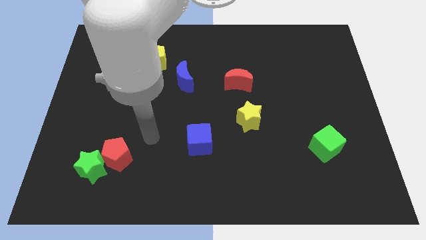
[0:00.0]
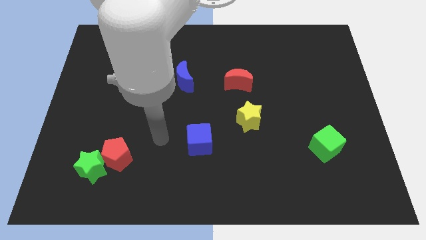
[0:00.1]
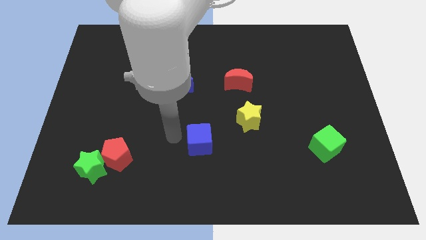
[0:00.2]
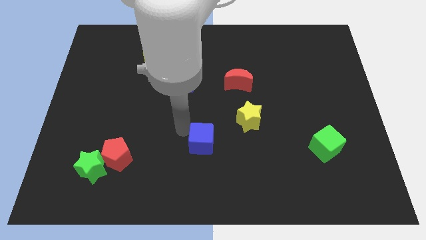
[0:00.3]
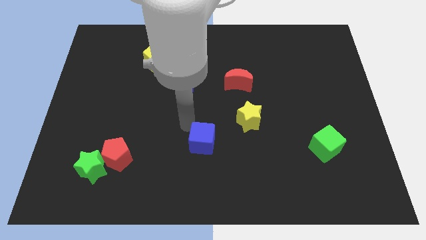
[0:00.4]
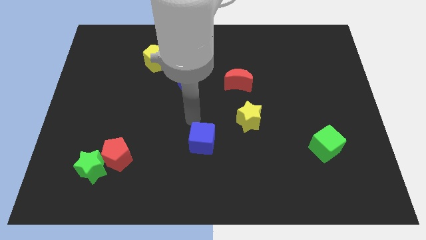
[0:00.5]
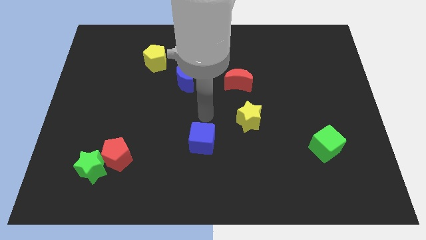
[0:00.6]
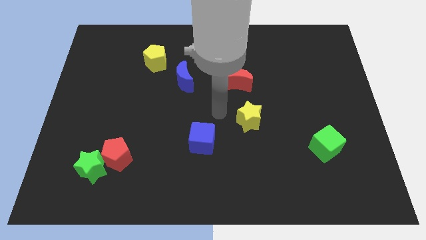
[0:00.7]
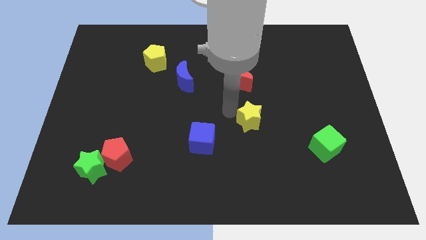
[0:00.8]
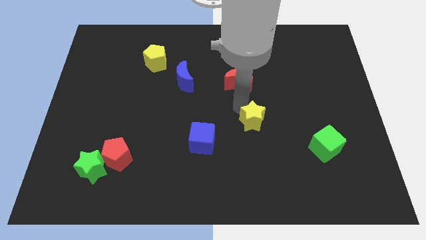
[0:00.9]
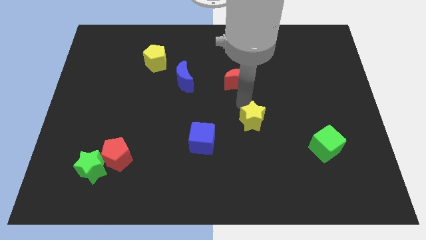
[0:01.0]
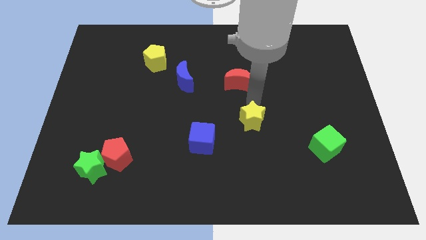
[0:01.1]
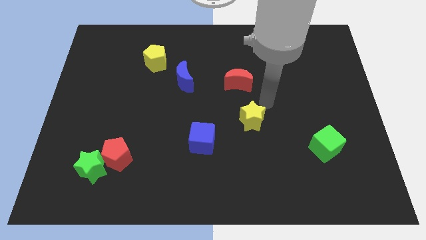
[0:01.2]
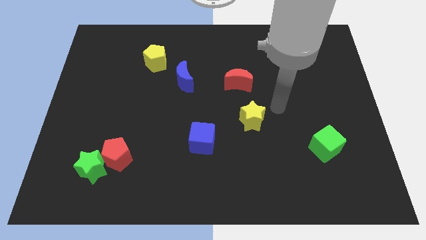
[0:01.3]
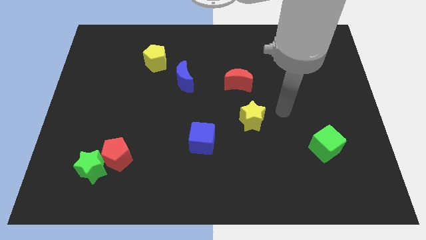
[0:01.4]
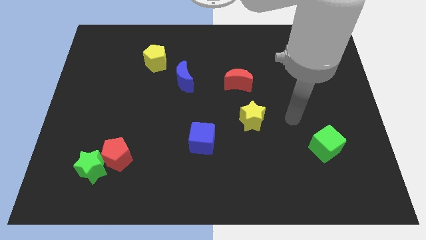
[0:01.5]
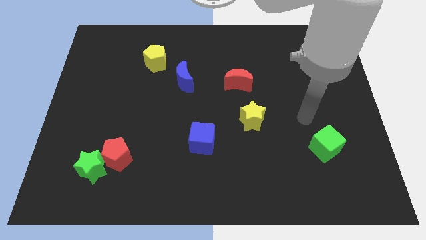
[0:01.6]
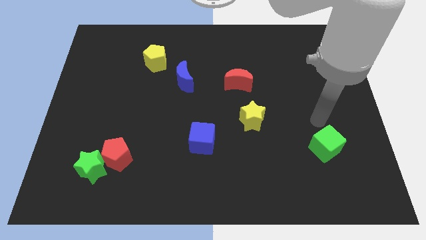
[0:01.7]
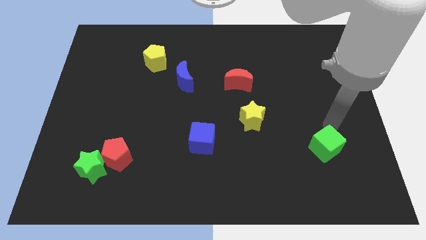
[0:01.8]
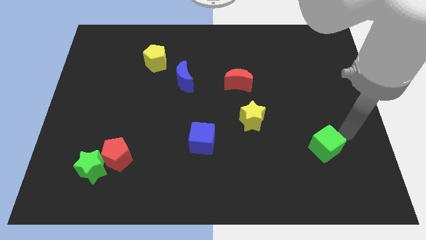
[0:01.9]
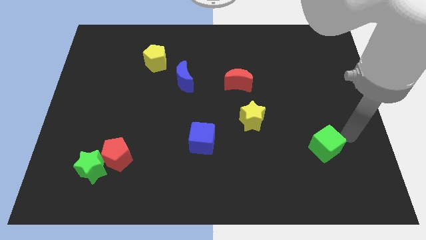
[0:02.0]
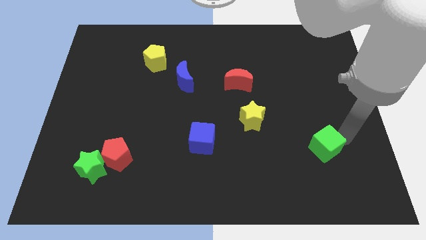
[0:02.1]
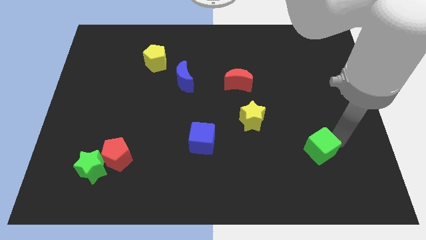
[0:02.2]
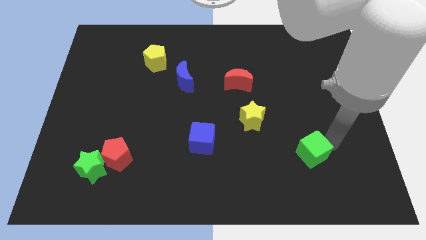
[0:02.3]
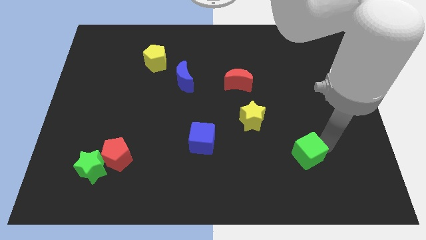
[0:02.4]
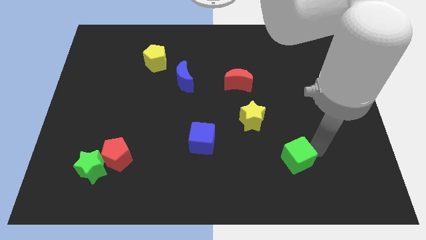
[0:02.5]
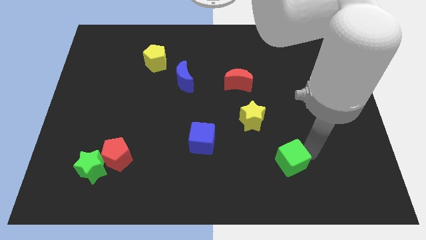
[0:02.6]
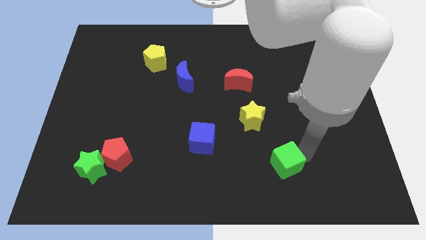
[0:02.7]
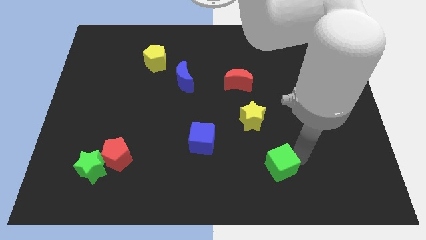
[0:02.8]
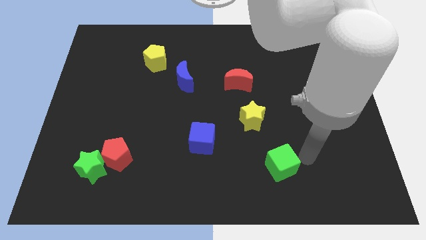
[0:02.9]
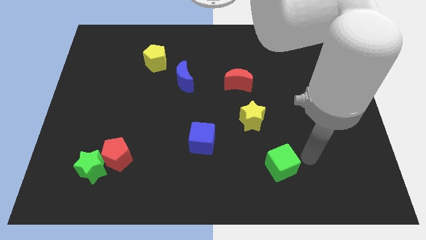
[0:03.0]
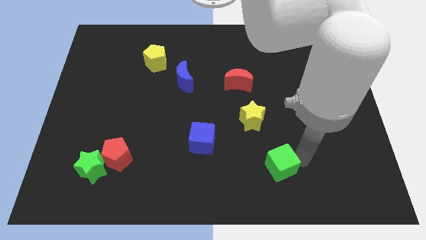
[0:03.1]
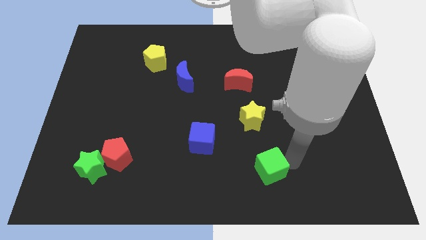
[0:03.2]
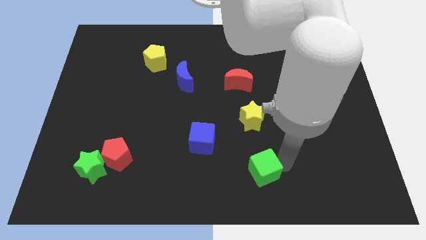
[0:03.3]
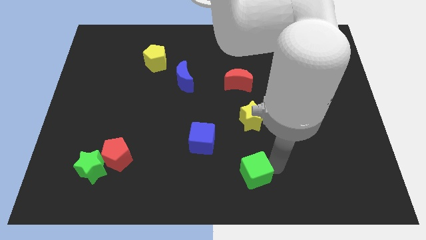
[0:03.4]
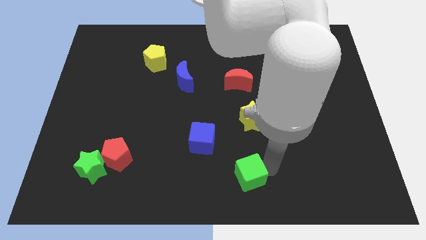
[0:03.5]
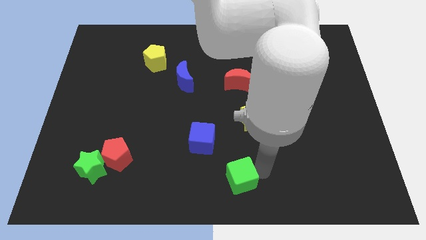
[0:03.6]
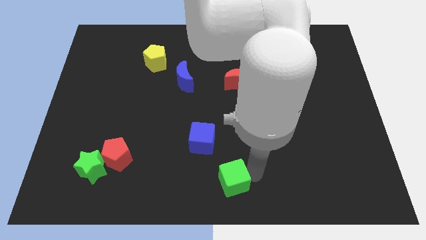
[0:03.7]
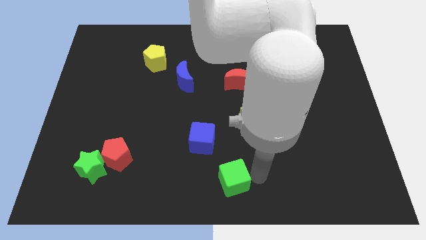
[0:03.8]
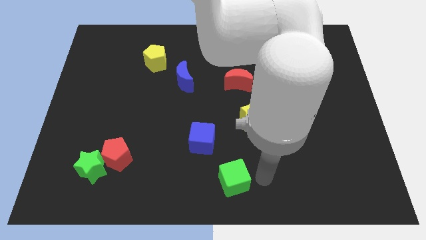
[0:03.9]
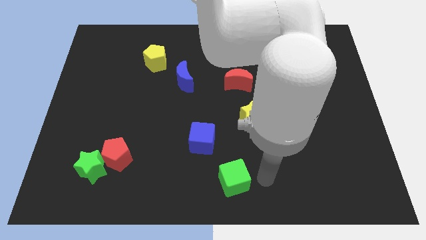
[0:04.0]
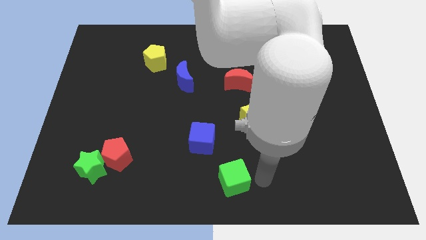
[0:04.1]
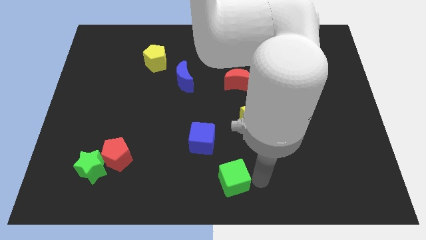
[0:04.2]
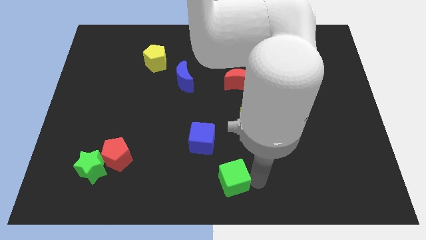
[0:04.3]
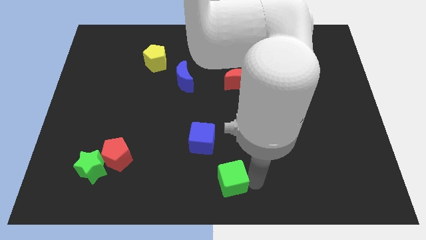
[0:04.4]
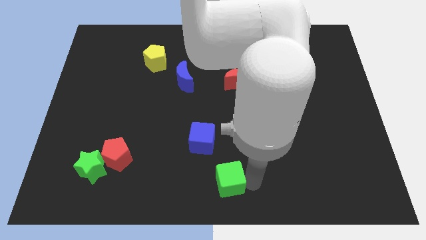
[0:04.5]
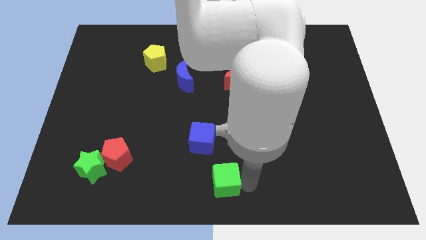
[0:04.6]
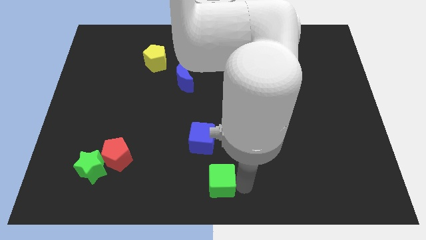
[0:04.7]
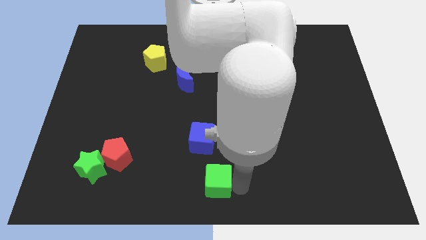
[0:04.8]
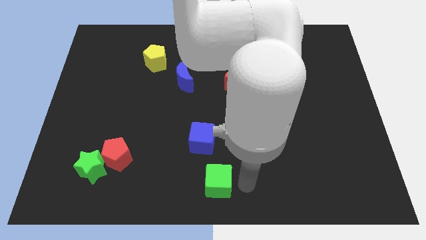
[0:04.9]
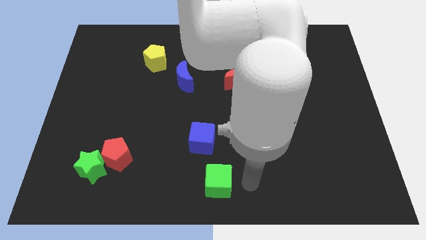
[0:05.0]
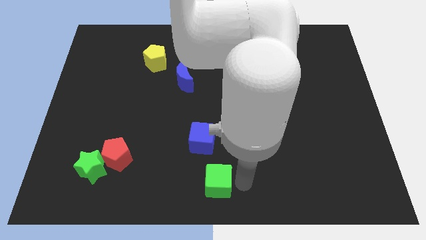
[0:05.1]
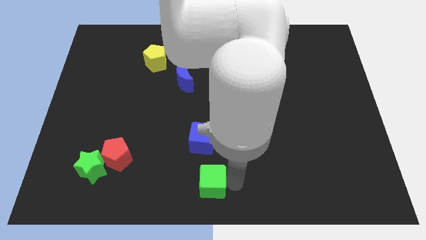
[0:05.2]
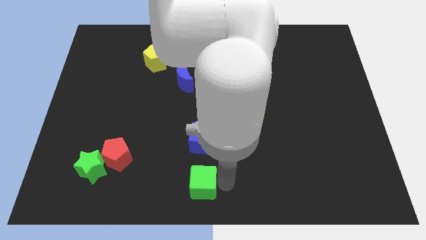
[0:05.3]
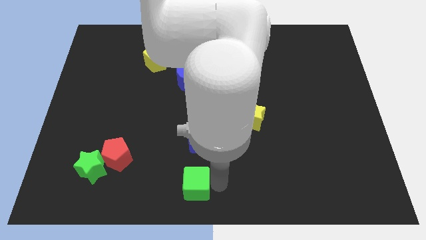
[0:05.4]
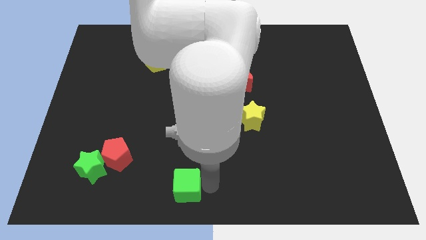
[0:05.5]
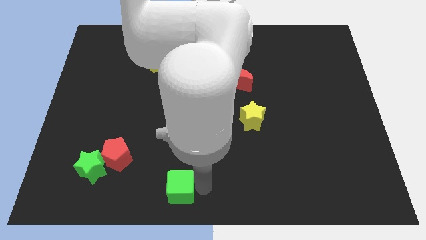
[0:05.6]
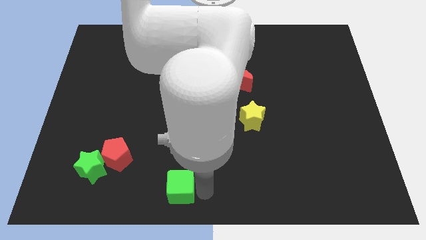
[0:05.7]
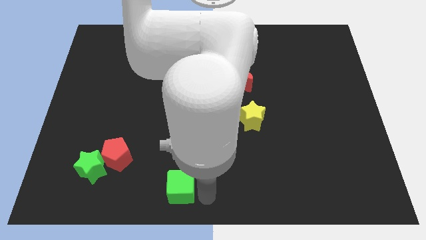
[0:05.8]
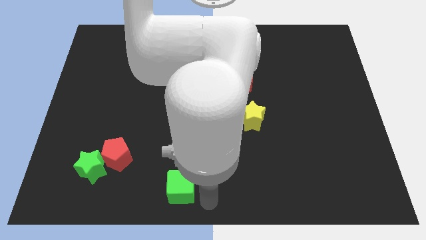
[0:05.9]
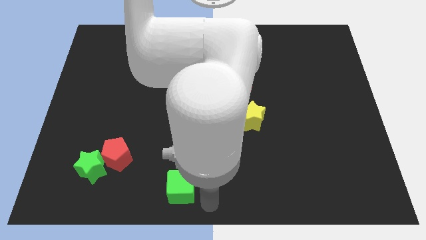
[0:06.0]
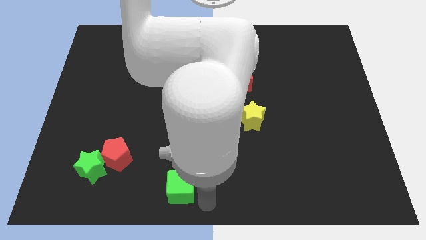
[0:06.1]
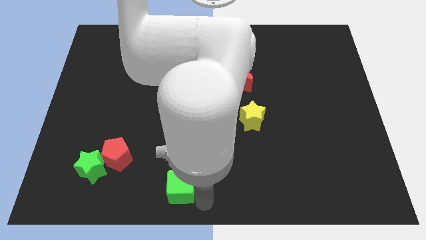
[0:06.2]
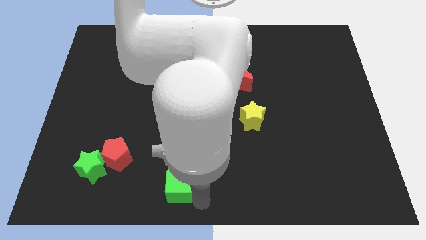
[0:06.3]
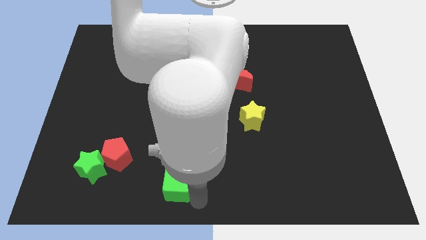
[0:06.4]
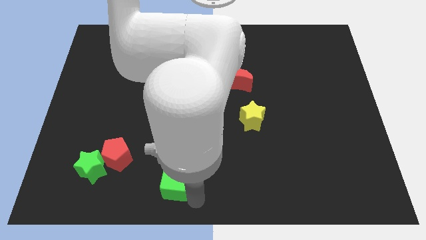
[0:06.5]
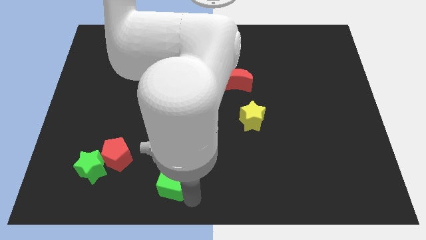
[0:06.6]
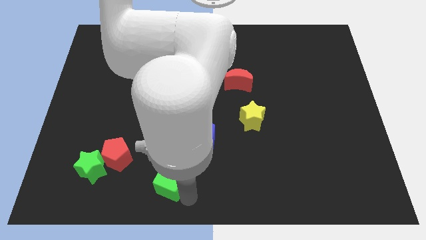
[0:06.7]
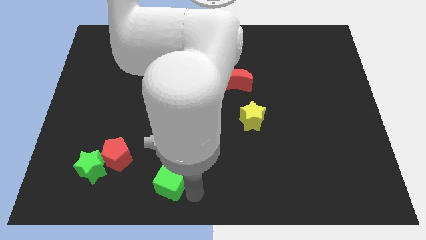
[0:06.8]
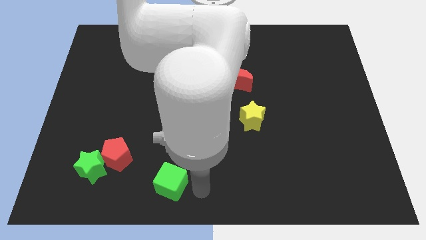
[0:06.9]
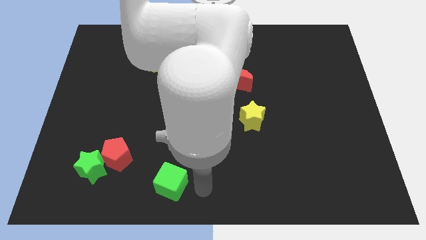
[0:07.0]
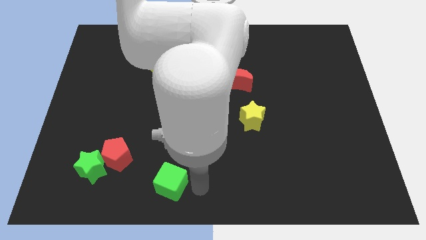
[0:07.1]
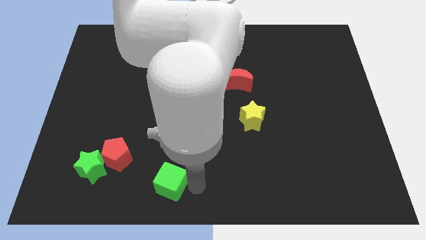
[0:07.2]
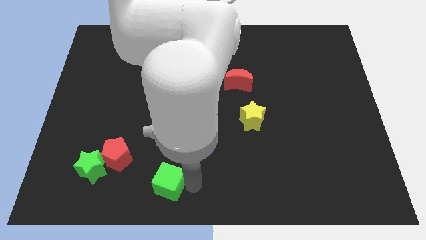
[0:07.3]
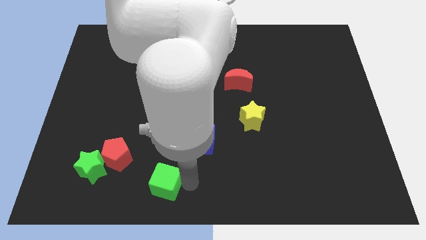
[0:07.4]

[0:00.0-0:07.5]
put the green cube to the bottom right of the red pentagon

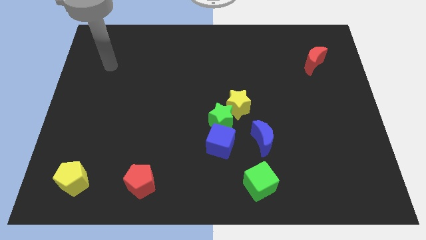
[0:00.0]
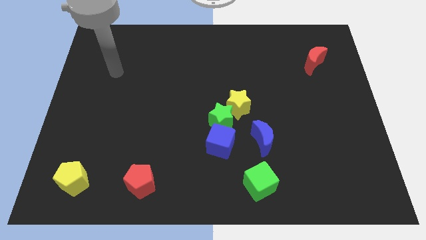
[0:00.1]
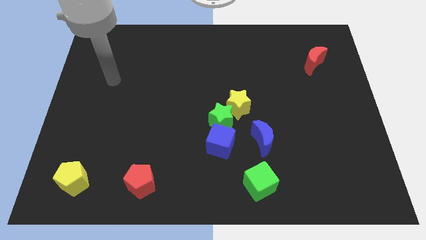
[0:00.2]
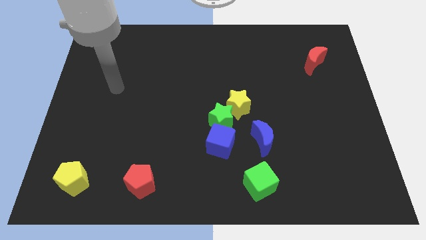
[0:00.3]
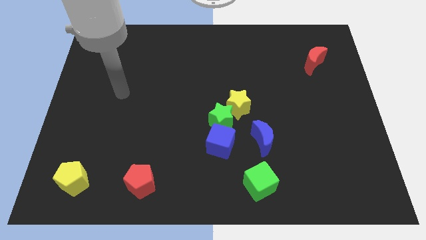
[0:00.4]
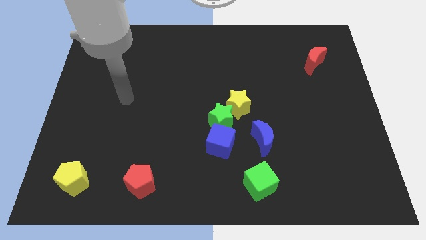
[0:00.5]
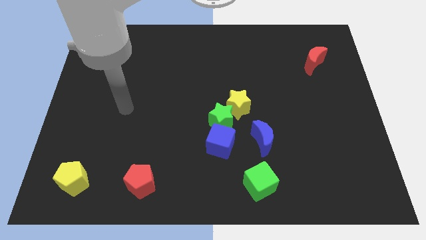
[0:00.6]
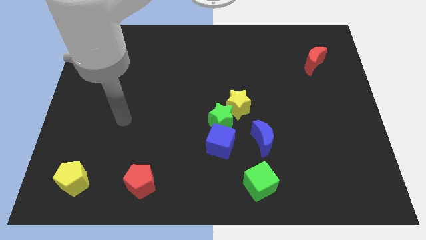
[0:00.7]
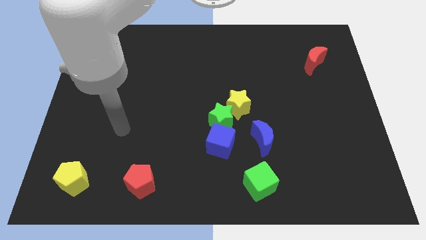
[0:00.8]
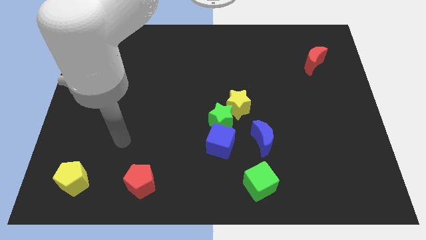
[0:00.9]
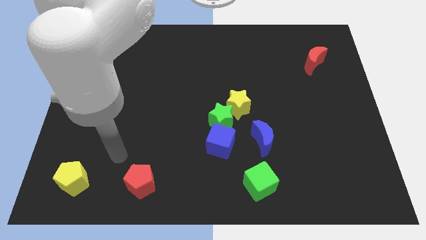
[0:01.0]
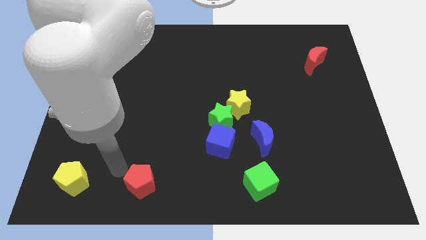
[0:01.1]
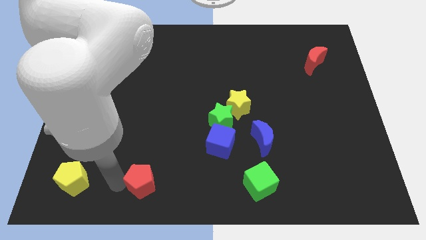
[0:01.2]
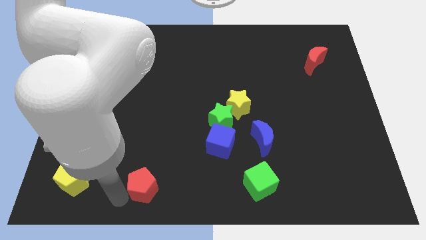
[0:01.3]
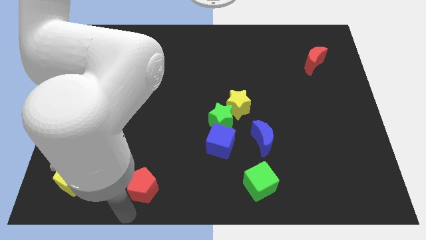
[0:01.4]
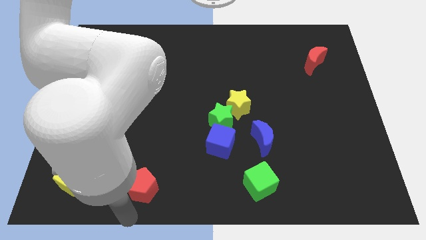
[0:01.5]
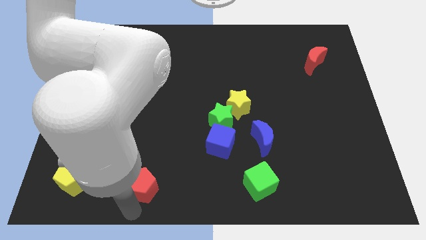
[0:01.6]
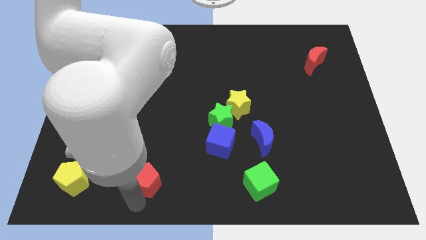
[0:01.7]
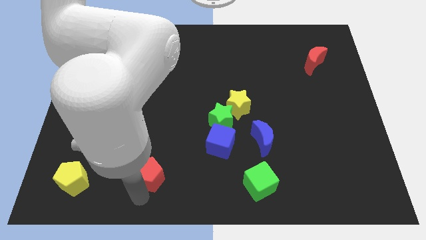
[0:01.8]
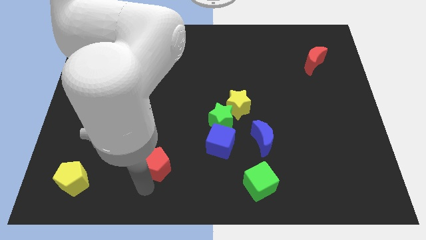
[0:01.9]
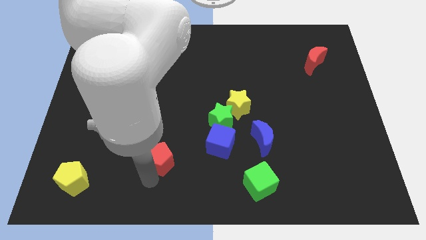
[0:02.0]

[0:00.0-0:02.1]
put the red pentagon to the left side of the blue cube
